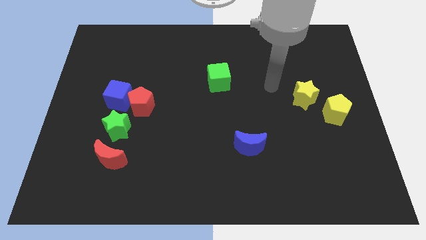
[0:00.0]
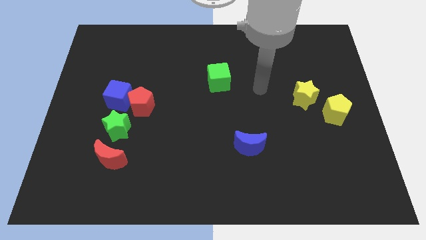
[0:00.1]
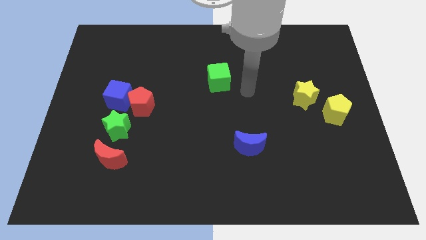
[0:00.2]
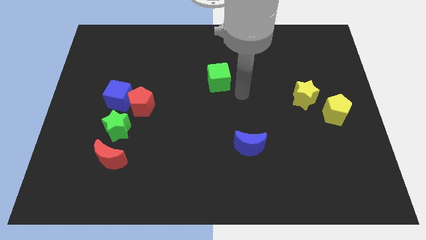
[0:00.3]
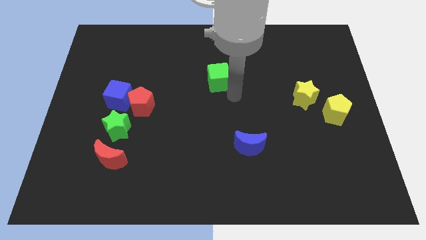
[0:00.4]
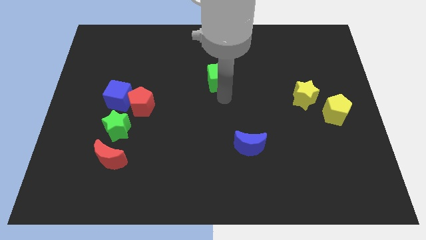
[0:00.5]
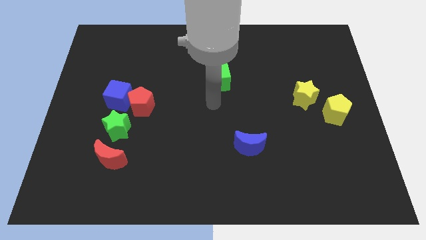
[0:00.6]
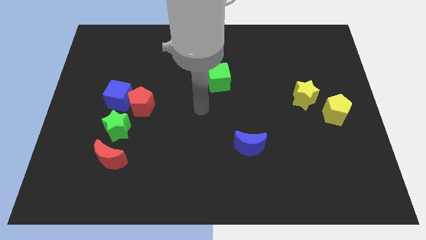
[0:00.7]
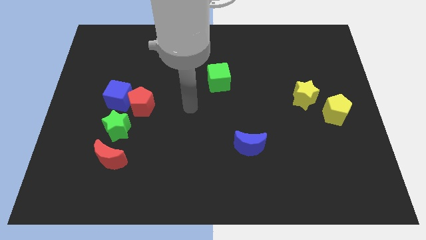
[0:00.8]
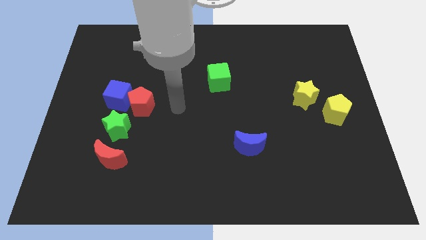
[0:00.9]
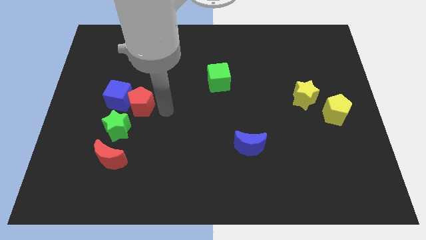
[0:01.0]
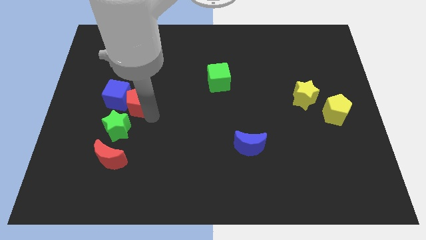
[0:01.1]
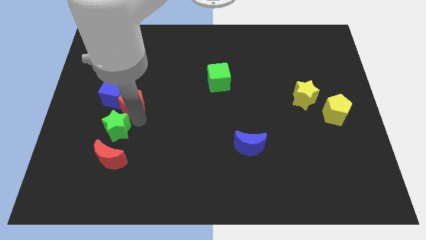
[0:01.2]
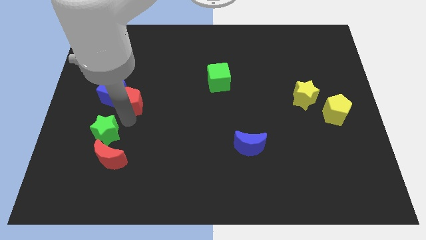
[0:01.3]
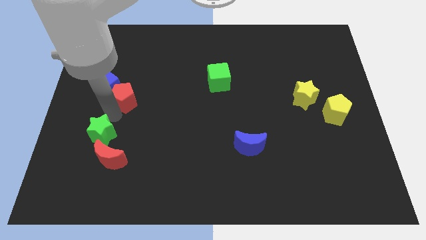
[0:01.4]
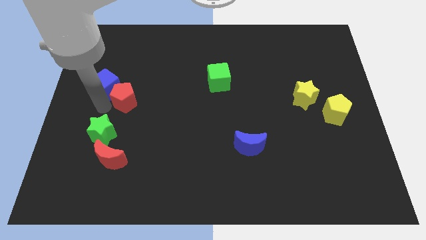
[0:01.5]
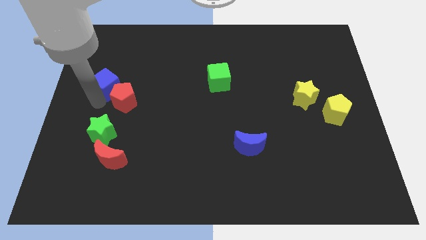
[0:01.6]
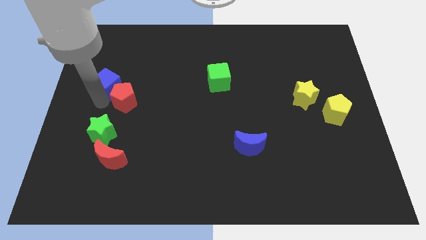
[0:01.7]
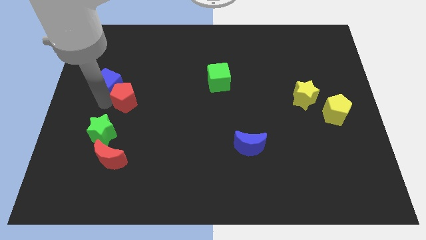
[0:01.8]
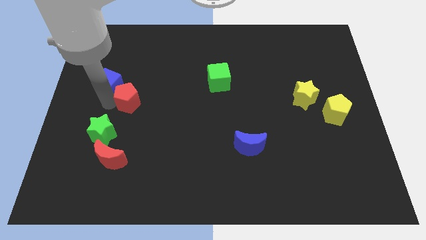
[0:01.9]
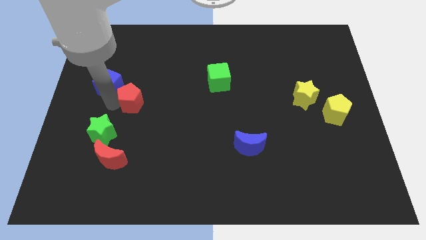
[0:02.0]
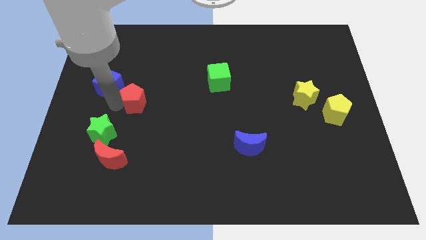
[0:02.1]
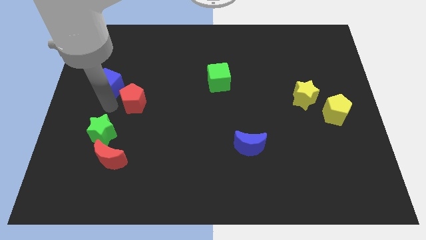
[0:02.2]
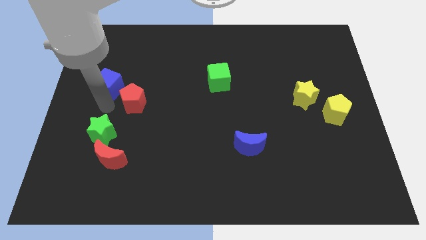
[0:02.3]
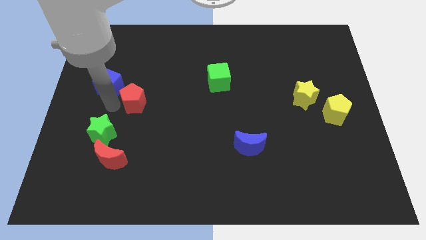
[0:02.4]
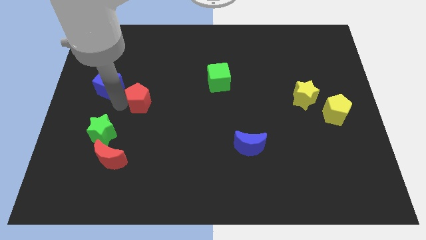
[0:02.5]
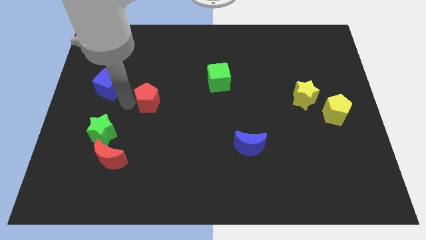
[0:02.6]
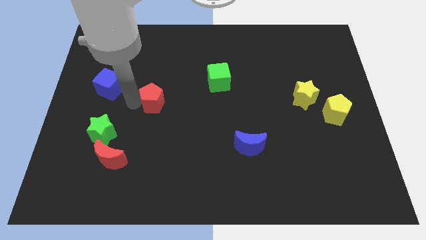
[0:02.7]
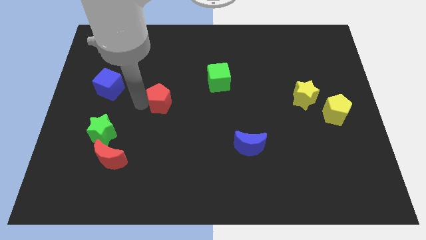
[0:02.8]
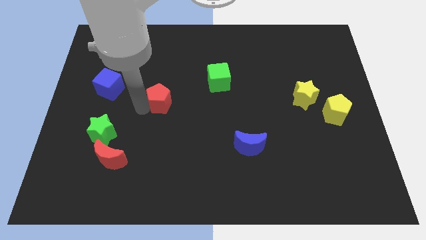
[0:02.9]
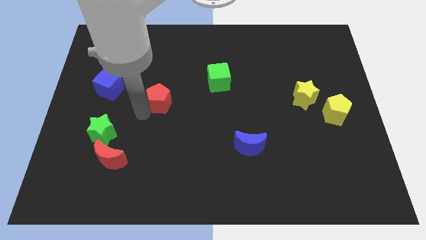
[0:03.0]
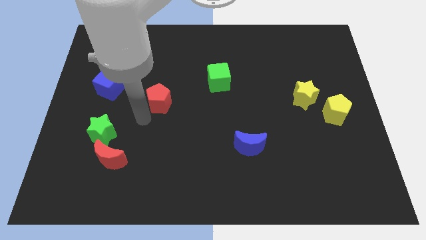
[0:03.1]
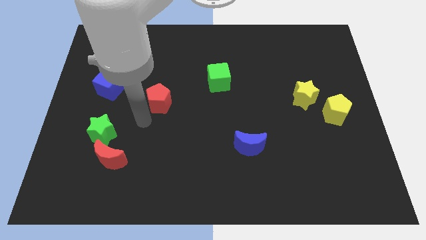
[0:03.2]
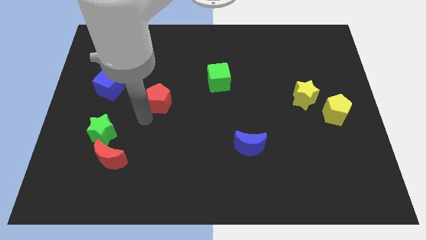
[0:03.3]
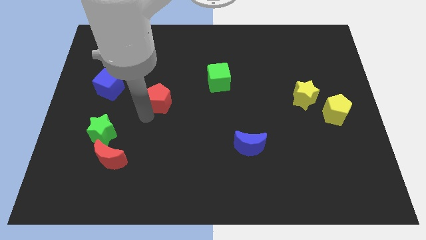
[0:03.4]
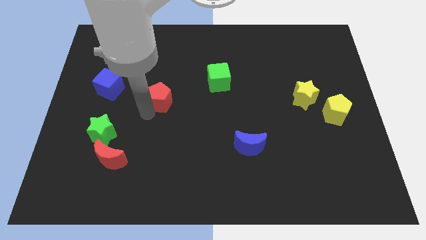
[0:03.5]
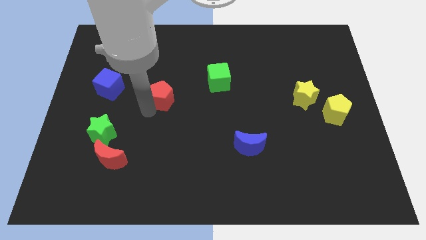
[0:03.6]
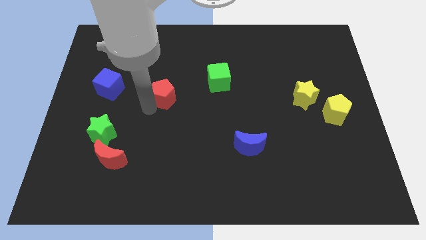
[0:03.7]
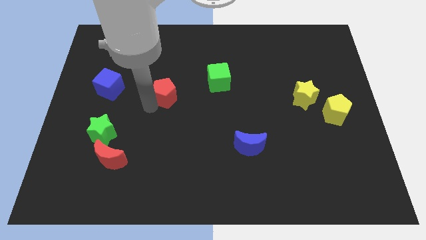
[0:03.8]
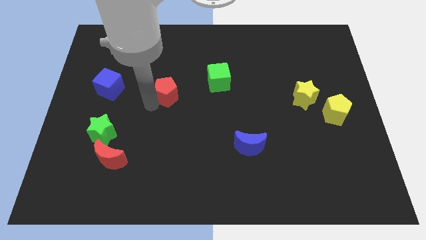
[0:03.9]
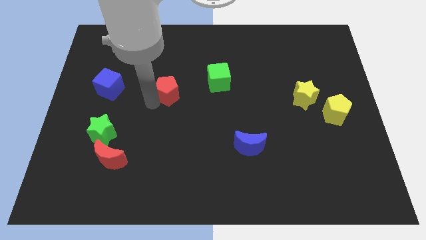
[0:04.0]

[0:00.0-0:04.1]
move the red pentagon up and to the right diagonally somewhat

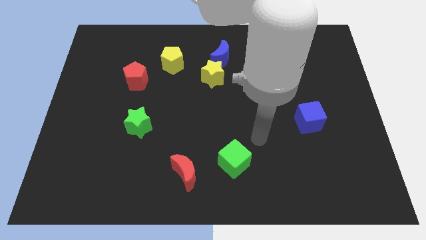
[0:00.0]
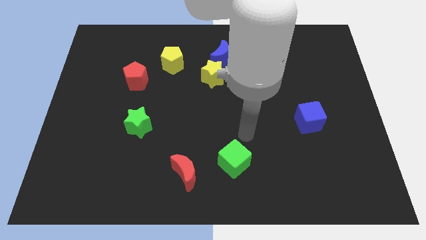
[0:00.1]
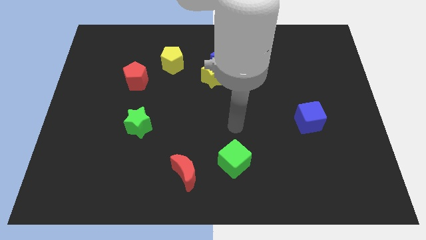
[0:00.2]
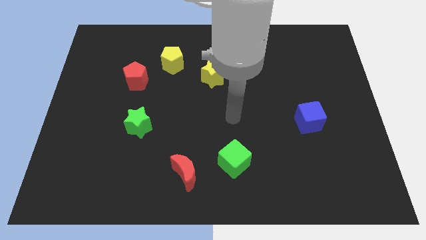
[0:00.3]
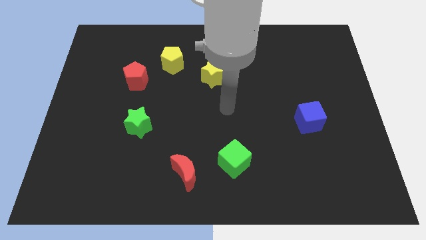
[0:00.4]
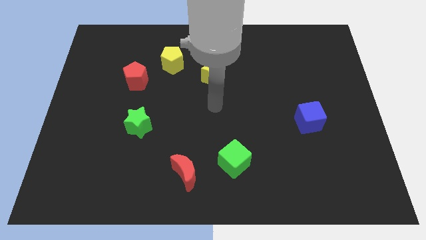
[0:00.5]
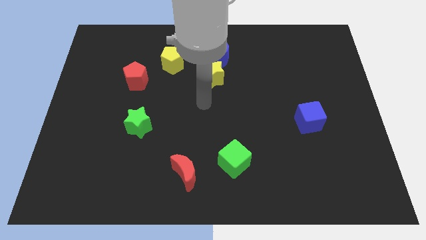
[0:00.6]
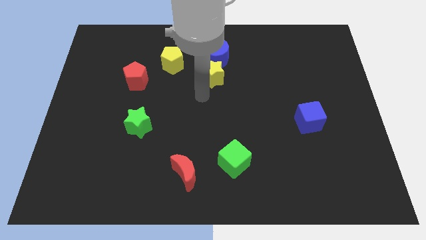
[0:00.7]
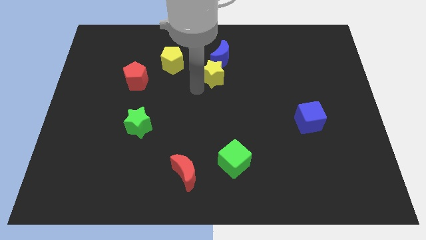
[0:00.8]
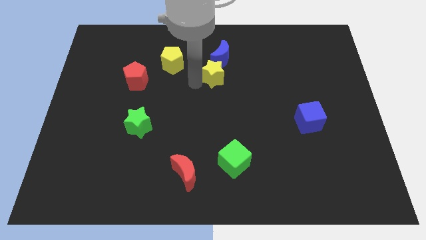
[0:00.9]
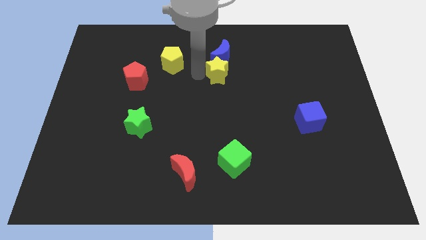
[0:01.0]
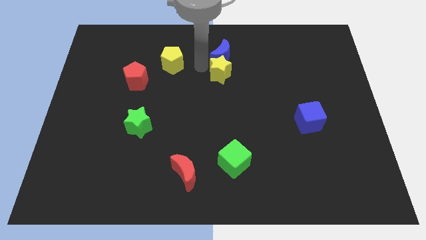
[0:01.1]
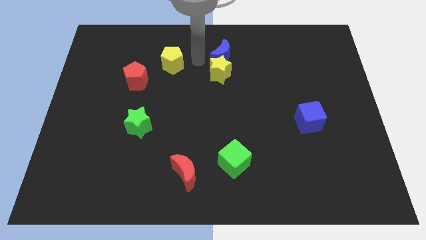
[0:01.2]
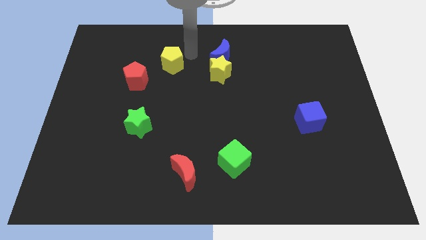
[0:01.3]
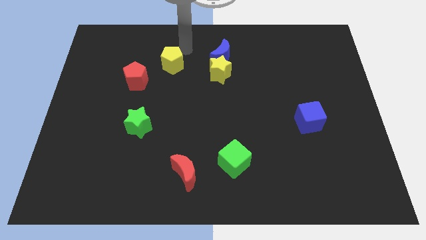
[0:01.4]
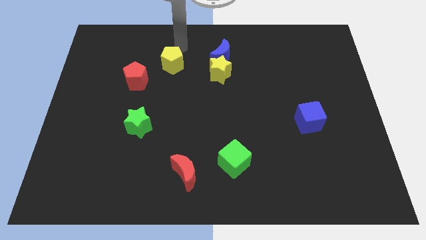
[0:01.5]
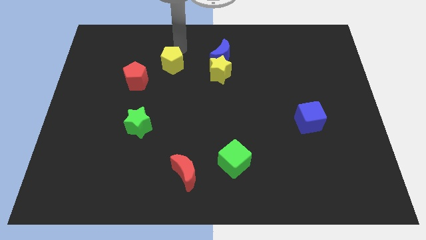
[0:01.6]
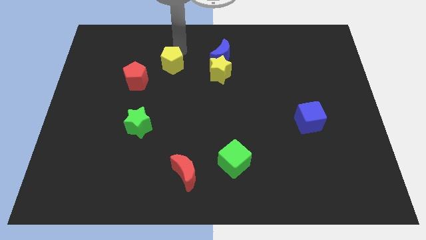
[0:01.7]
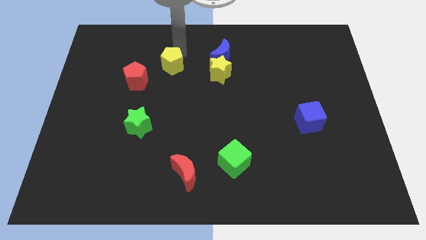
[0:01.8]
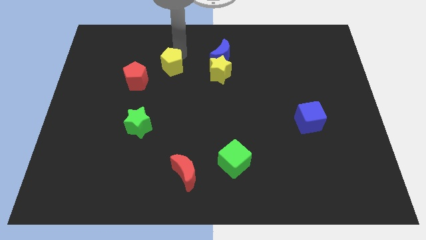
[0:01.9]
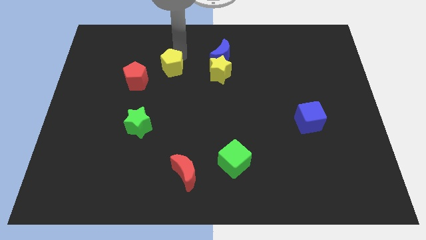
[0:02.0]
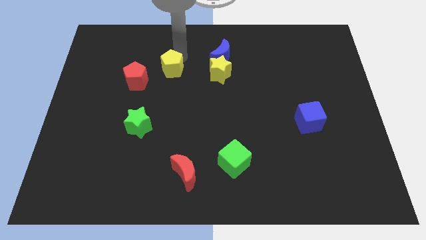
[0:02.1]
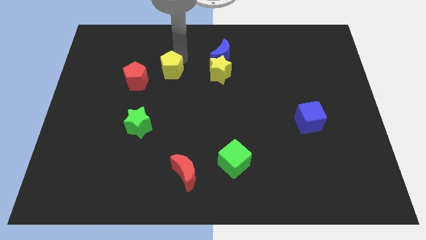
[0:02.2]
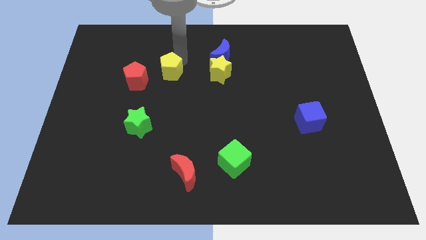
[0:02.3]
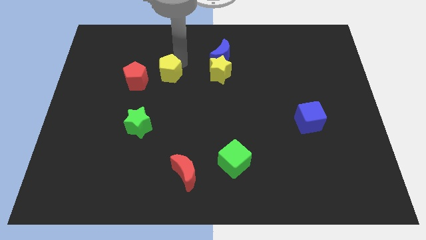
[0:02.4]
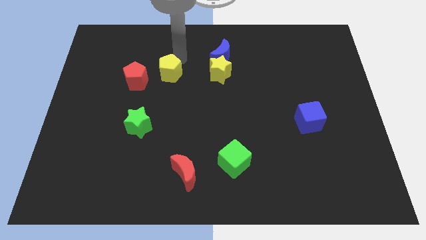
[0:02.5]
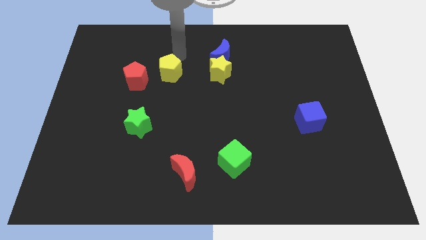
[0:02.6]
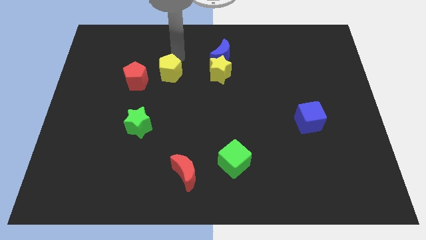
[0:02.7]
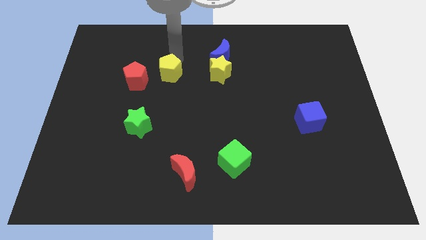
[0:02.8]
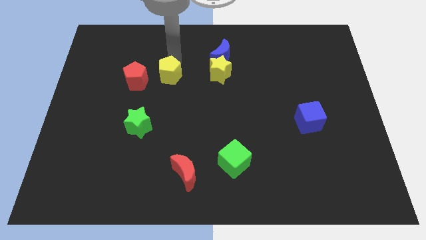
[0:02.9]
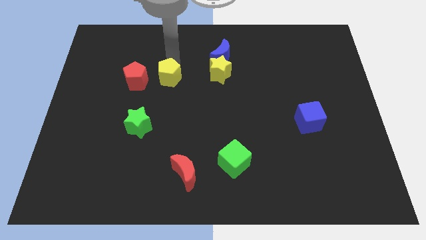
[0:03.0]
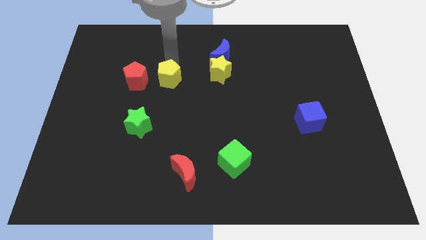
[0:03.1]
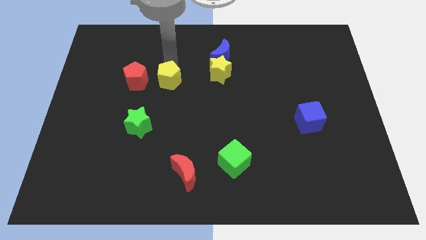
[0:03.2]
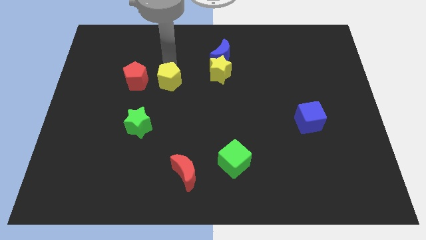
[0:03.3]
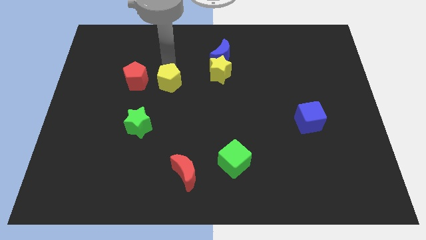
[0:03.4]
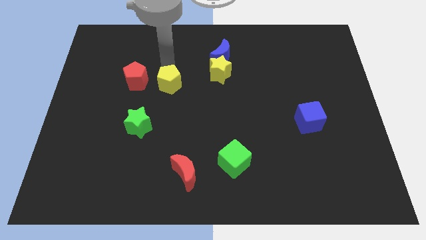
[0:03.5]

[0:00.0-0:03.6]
move the yellow pentagon downwards a bit
